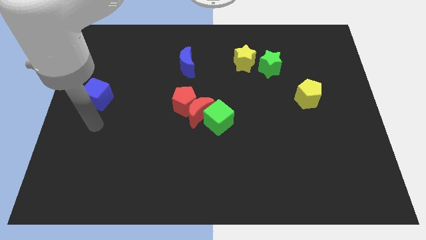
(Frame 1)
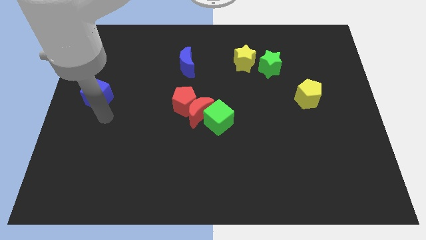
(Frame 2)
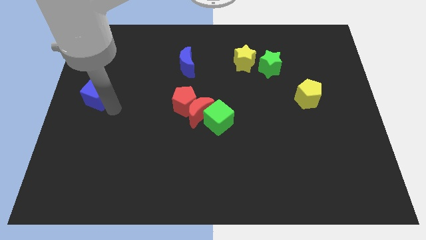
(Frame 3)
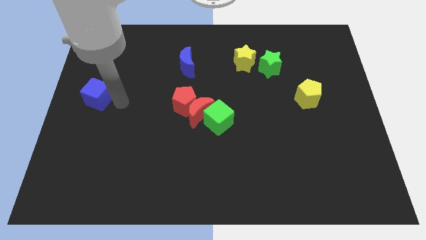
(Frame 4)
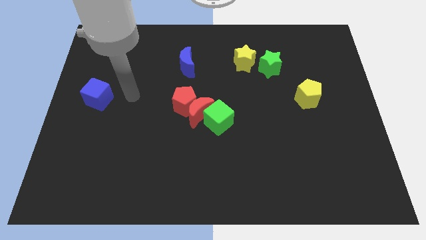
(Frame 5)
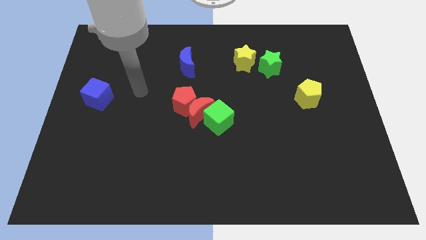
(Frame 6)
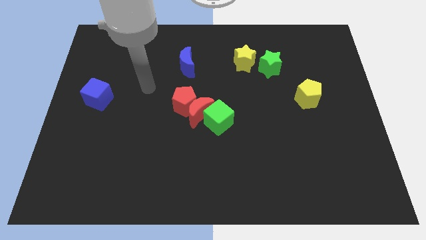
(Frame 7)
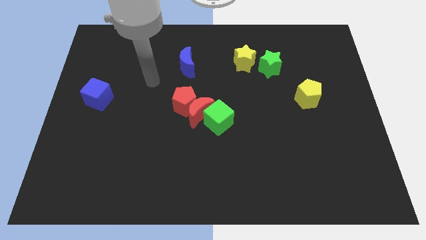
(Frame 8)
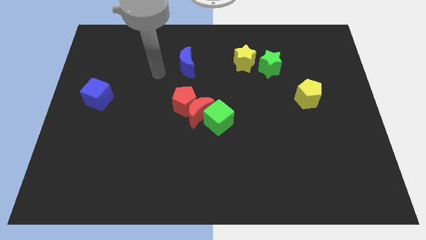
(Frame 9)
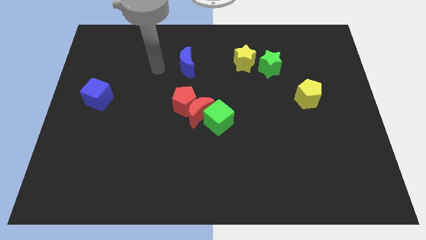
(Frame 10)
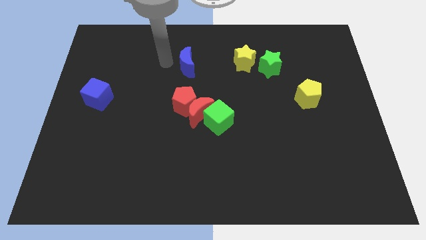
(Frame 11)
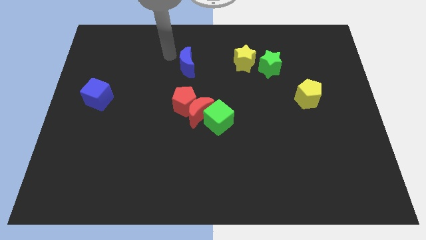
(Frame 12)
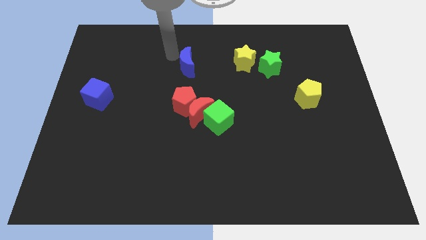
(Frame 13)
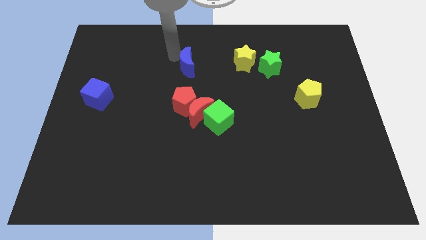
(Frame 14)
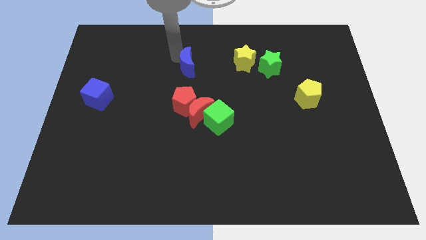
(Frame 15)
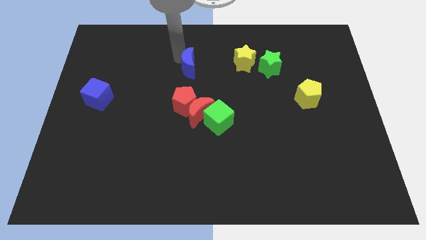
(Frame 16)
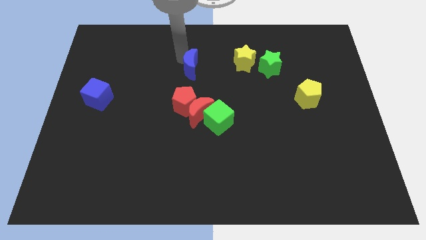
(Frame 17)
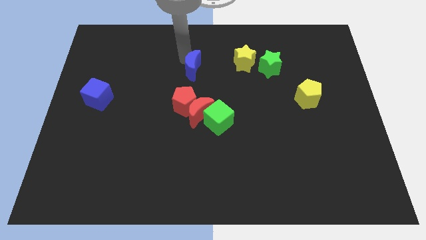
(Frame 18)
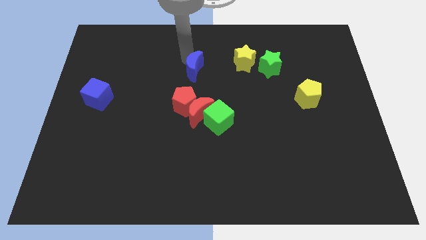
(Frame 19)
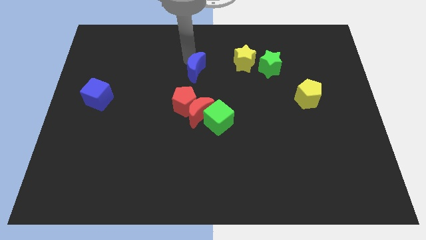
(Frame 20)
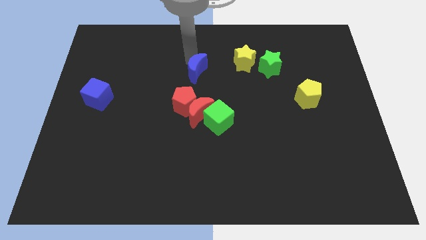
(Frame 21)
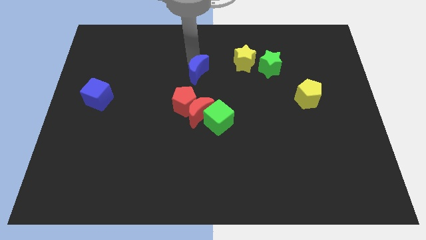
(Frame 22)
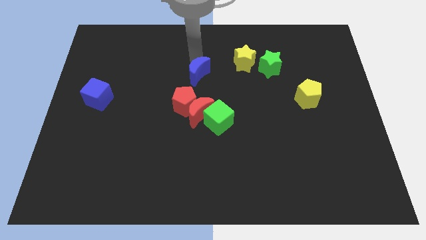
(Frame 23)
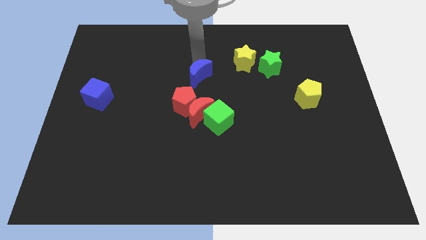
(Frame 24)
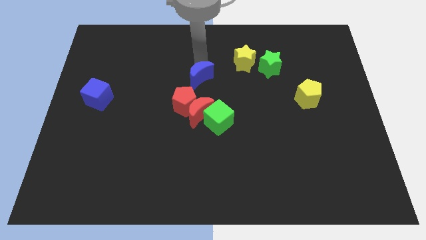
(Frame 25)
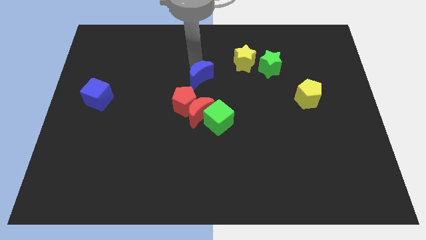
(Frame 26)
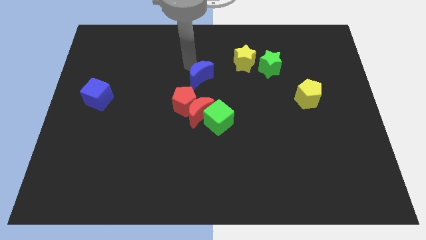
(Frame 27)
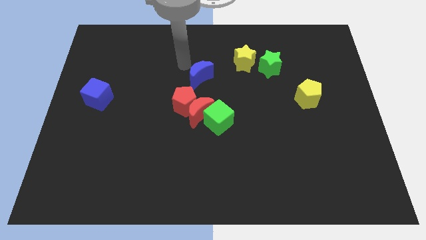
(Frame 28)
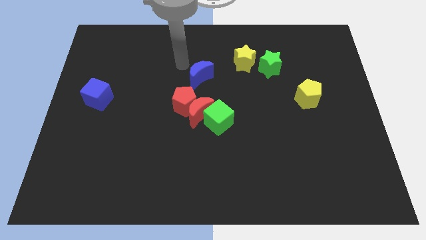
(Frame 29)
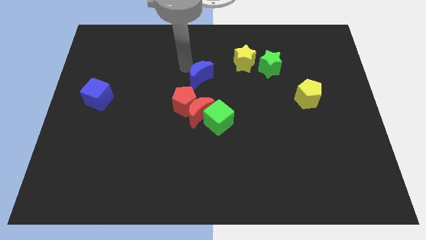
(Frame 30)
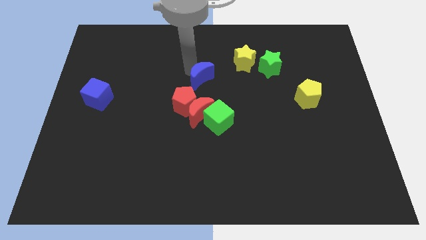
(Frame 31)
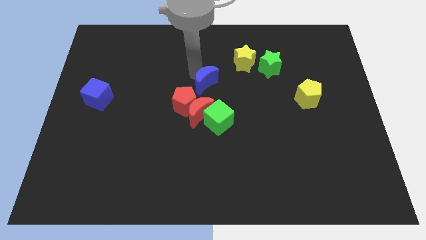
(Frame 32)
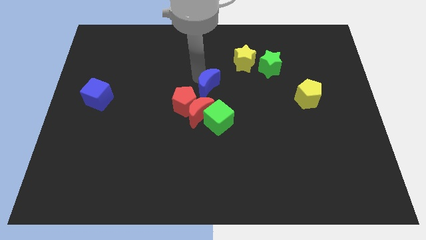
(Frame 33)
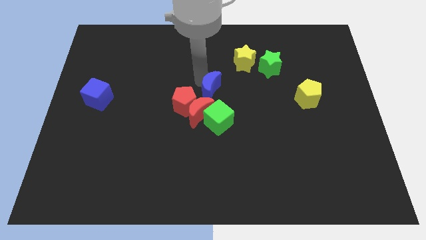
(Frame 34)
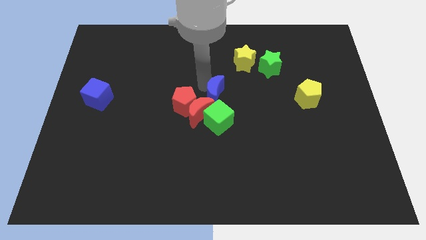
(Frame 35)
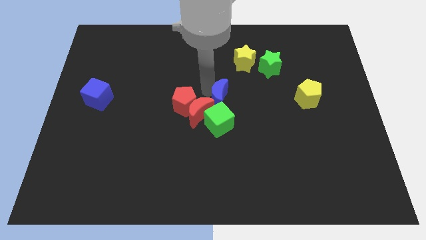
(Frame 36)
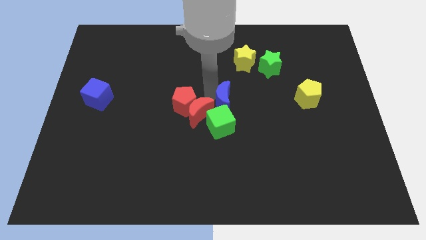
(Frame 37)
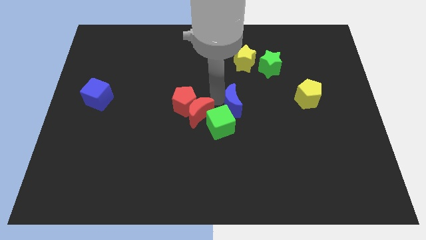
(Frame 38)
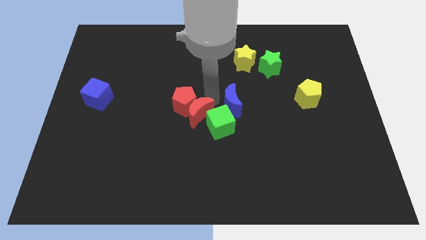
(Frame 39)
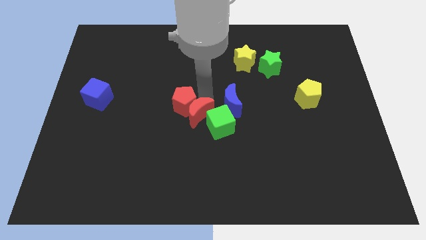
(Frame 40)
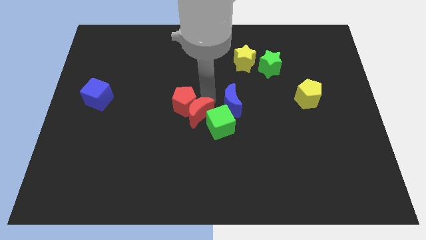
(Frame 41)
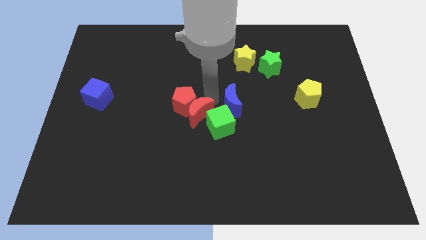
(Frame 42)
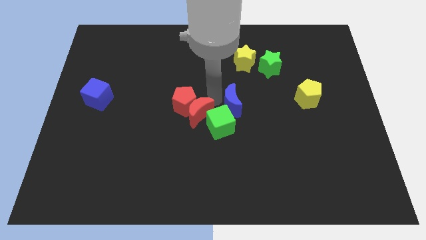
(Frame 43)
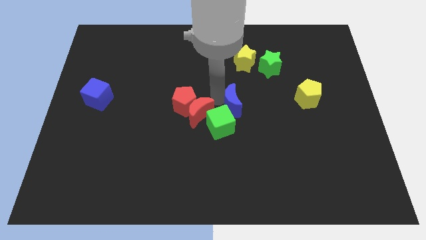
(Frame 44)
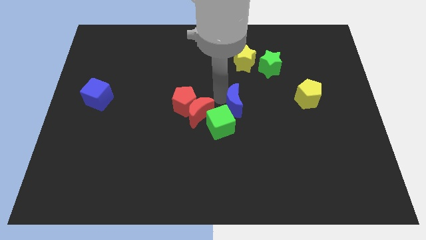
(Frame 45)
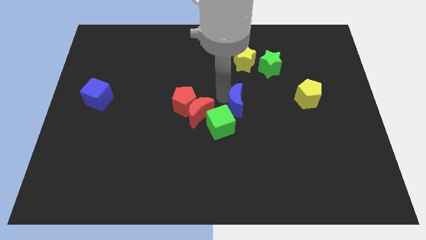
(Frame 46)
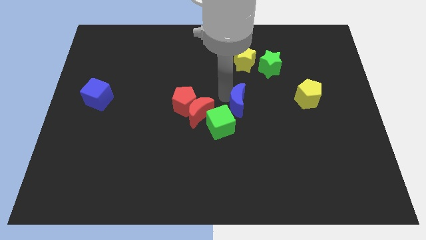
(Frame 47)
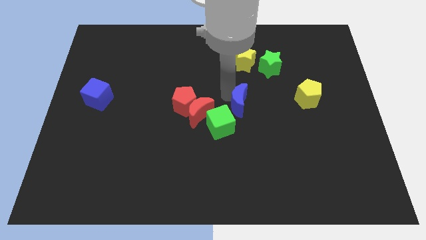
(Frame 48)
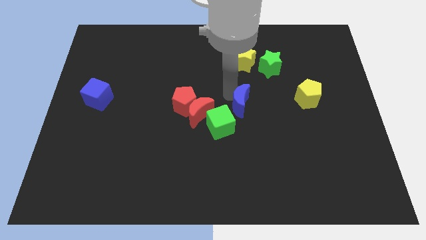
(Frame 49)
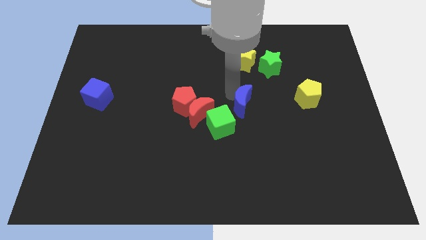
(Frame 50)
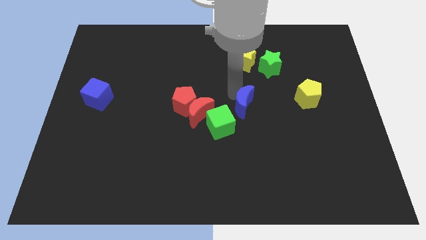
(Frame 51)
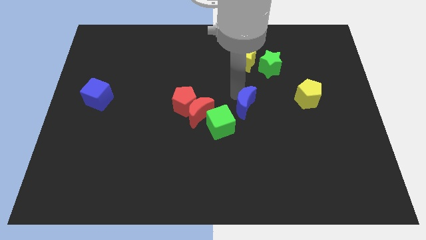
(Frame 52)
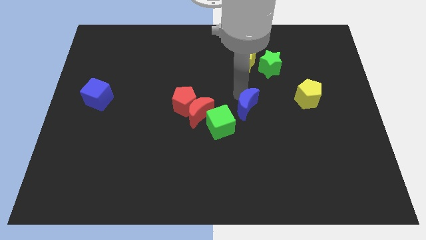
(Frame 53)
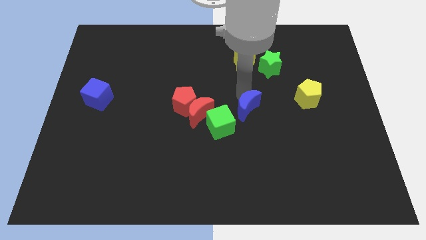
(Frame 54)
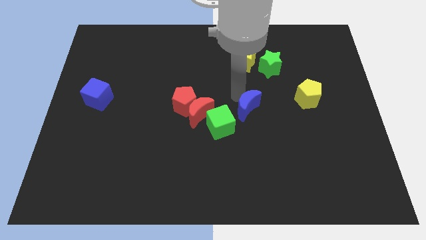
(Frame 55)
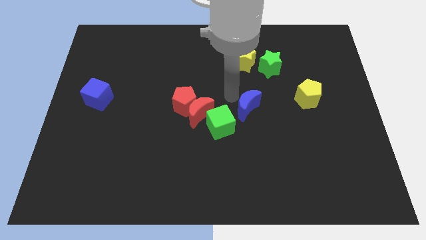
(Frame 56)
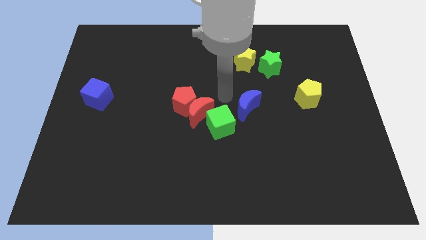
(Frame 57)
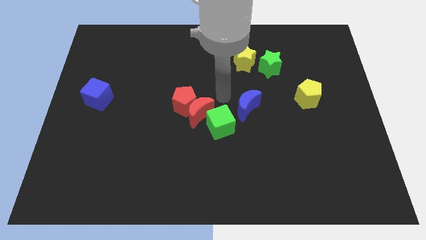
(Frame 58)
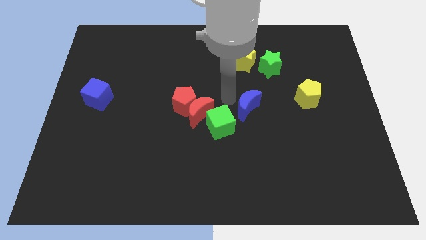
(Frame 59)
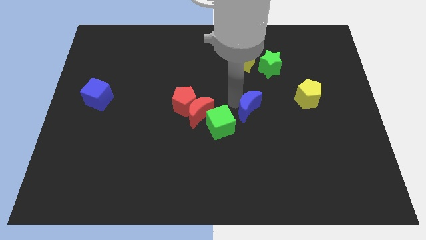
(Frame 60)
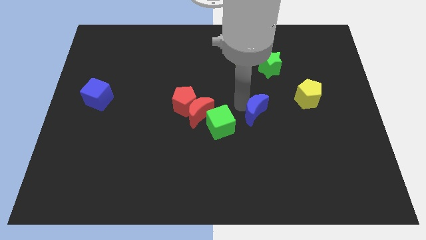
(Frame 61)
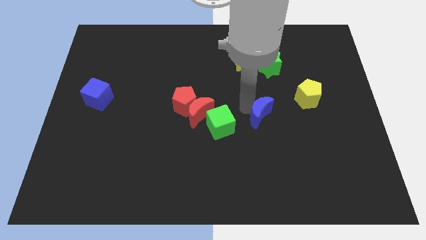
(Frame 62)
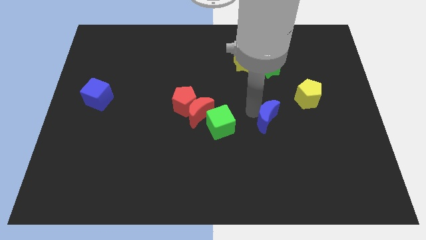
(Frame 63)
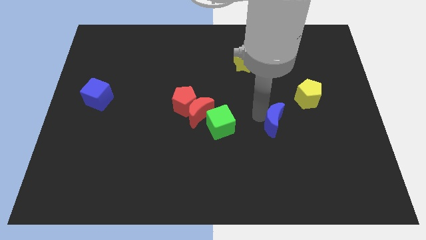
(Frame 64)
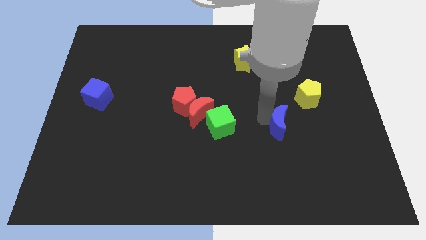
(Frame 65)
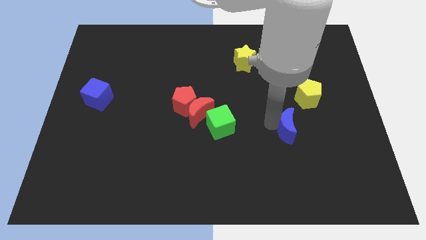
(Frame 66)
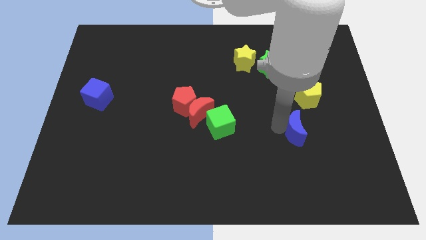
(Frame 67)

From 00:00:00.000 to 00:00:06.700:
slide the blue moon to the bottom of the yellow pentagon

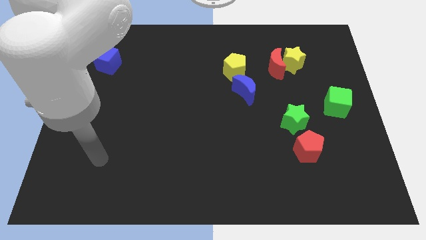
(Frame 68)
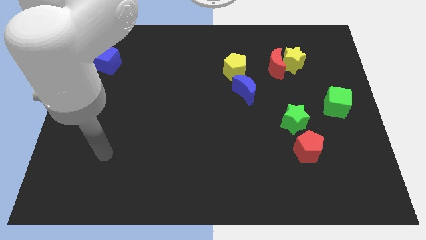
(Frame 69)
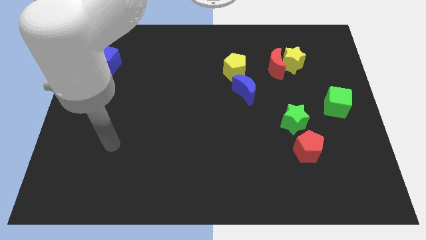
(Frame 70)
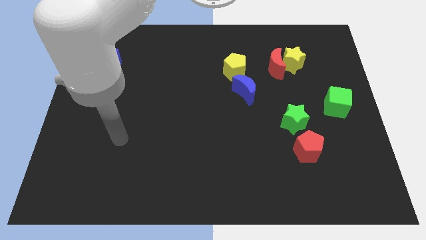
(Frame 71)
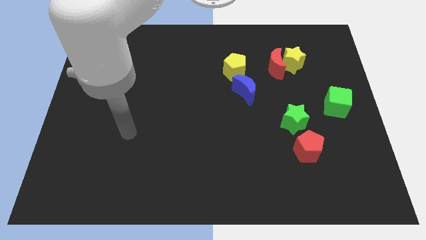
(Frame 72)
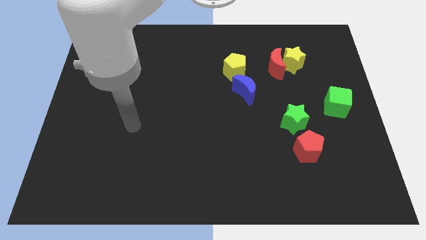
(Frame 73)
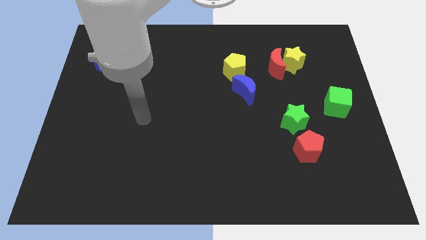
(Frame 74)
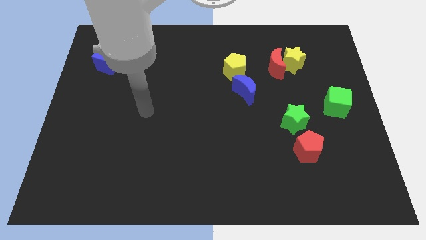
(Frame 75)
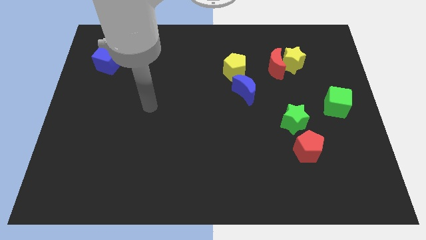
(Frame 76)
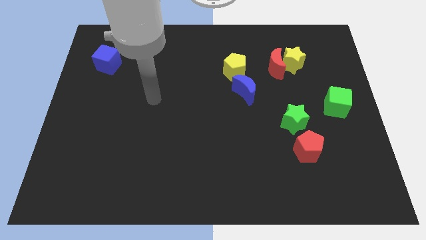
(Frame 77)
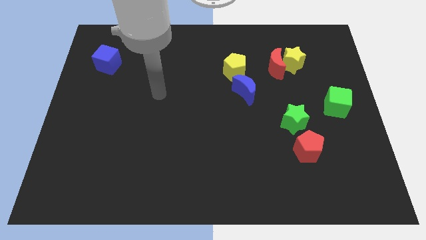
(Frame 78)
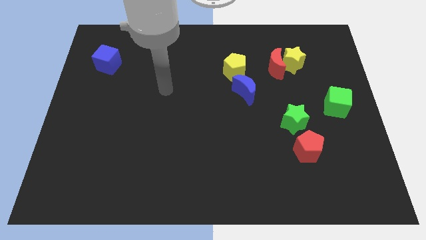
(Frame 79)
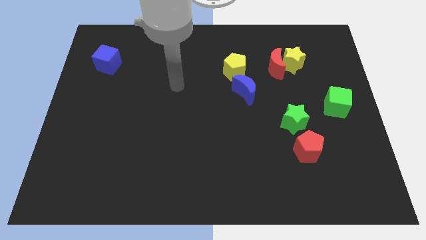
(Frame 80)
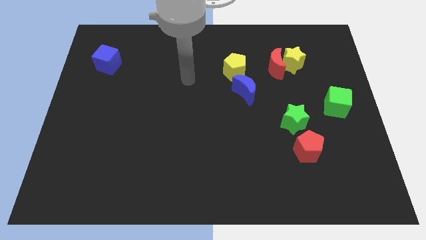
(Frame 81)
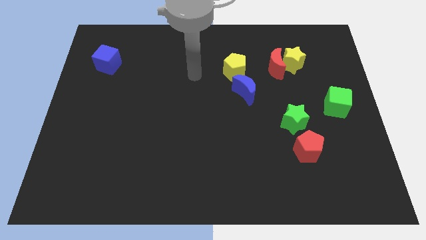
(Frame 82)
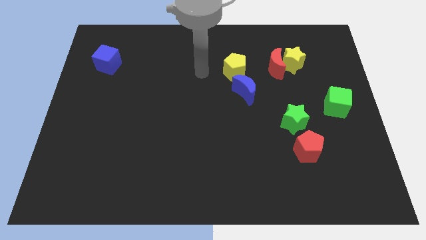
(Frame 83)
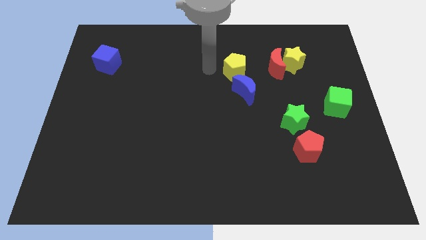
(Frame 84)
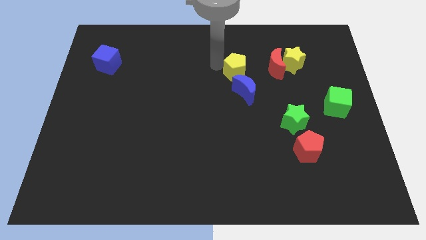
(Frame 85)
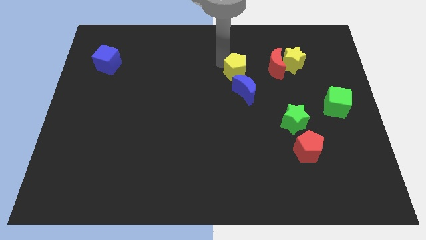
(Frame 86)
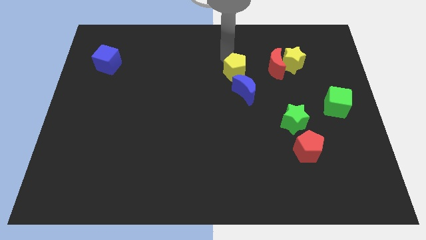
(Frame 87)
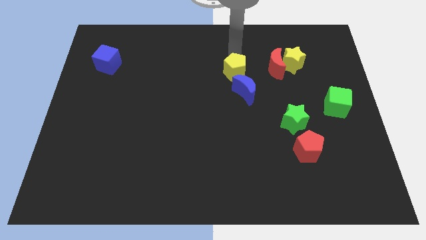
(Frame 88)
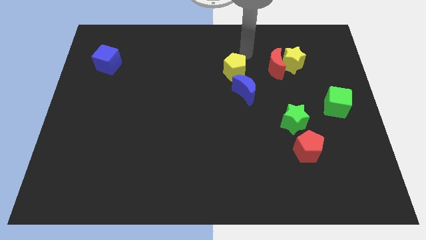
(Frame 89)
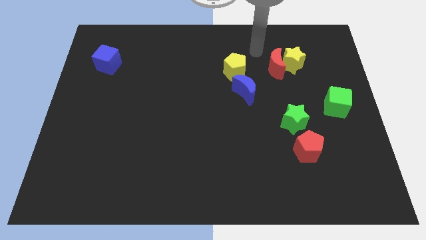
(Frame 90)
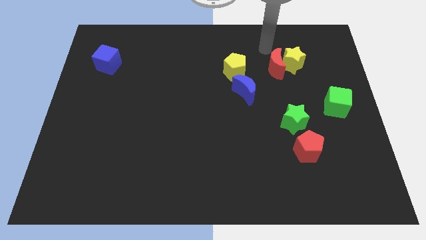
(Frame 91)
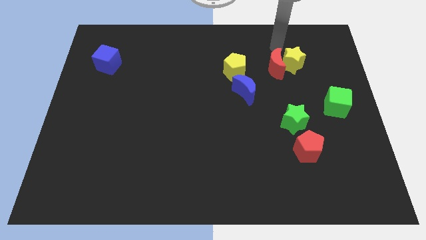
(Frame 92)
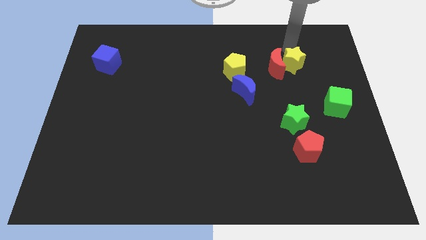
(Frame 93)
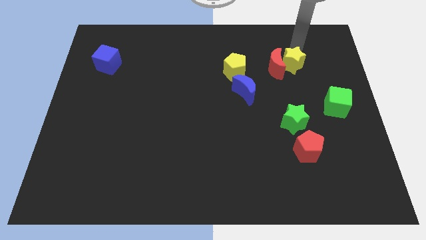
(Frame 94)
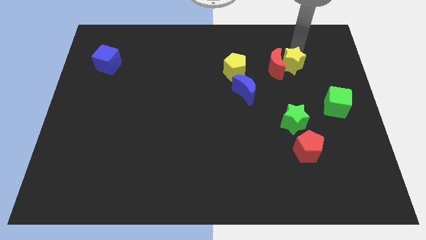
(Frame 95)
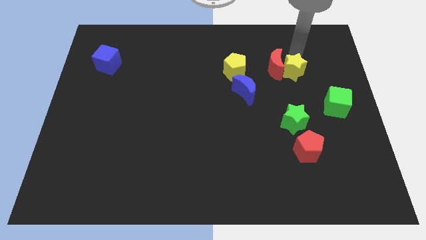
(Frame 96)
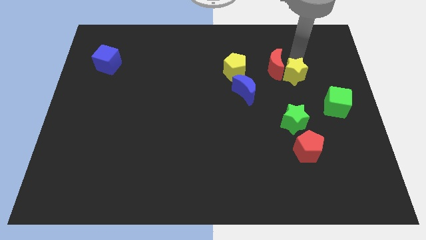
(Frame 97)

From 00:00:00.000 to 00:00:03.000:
push the yellow star to the top side of the green star
